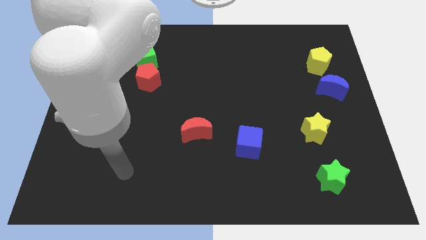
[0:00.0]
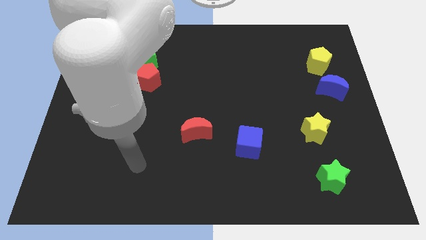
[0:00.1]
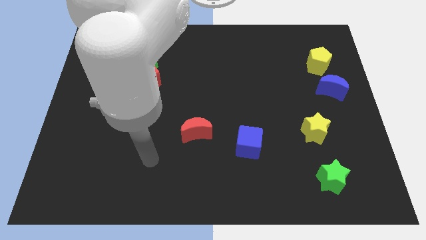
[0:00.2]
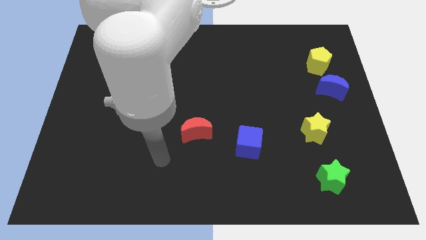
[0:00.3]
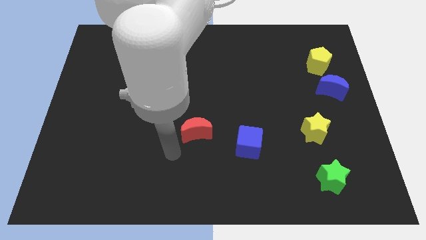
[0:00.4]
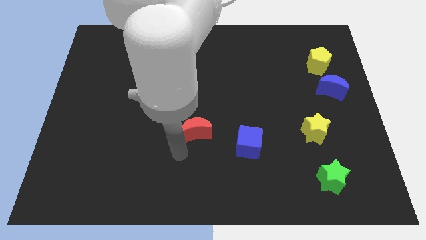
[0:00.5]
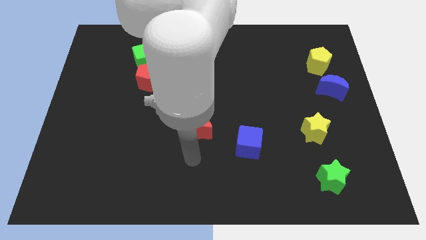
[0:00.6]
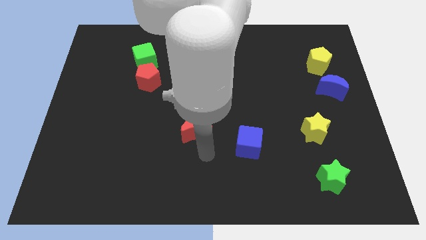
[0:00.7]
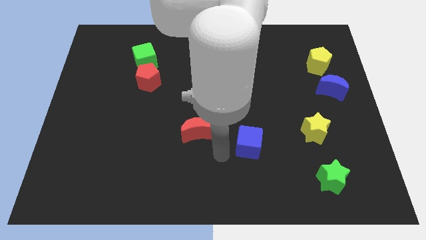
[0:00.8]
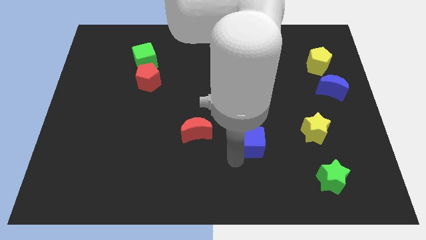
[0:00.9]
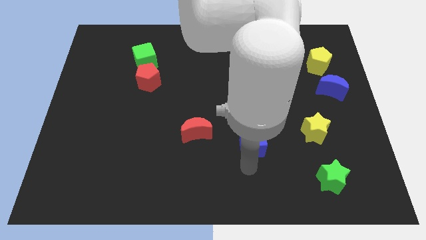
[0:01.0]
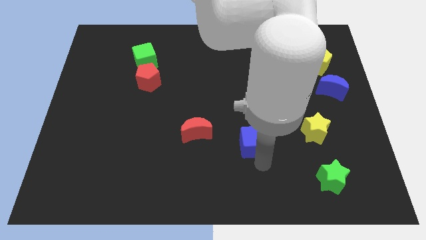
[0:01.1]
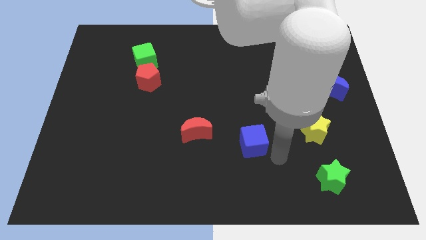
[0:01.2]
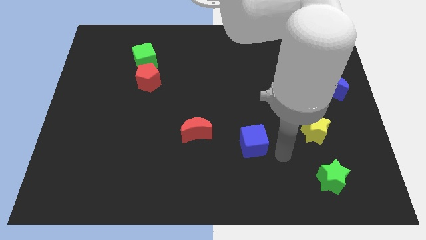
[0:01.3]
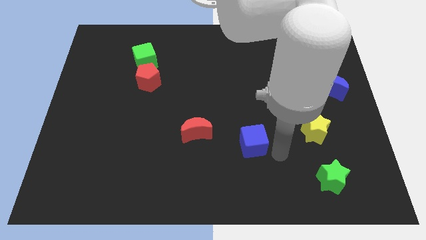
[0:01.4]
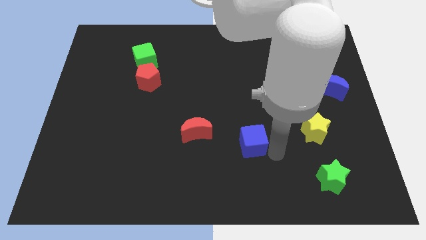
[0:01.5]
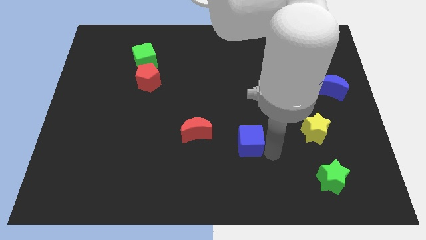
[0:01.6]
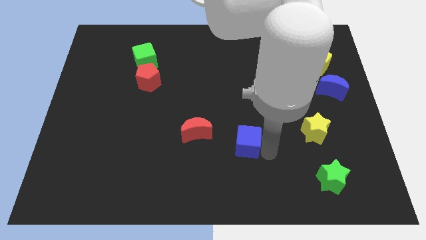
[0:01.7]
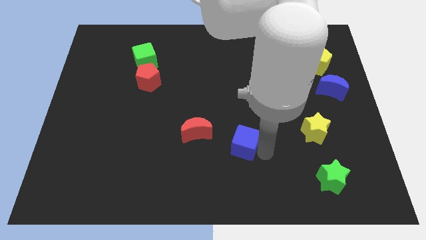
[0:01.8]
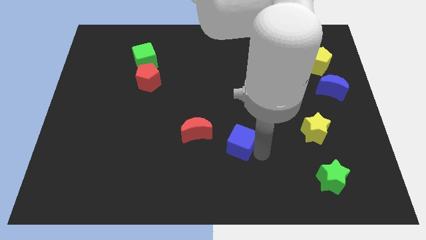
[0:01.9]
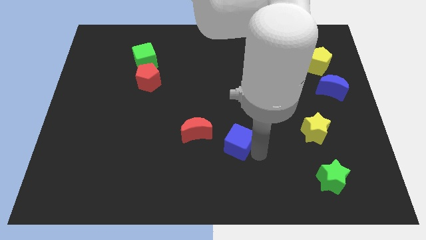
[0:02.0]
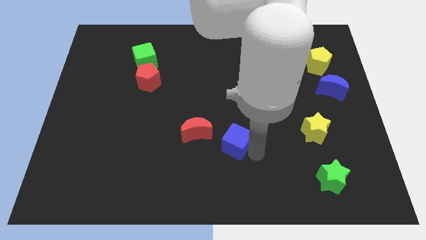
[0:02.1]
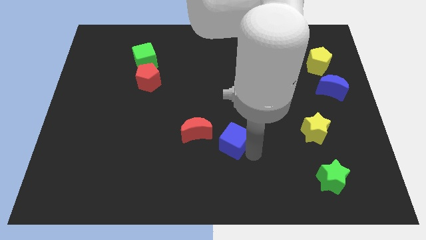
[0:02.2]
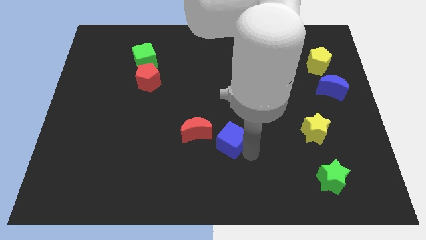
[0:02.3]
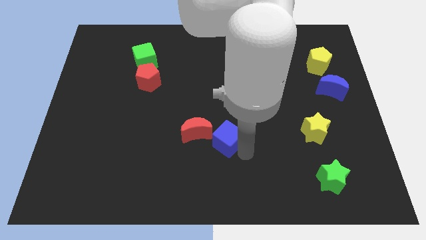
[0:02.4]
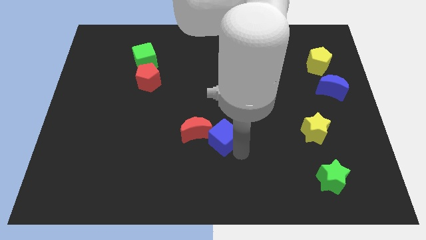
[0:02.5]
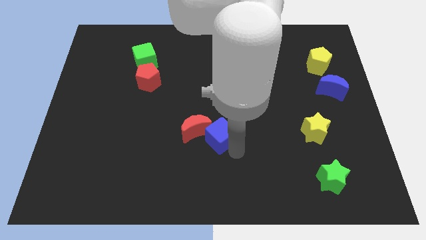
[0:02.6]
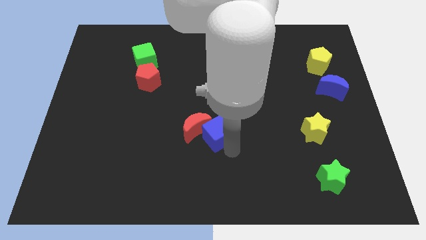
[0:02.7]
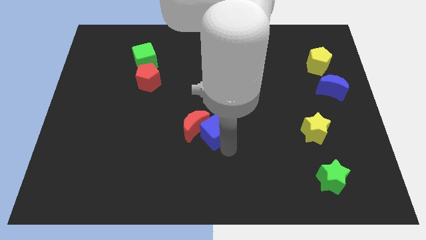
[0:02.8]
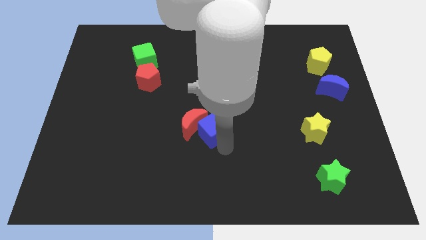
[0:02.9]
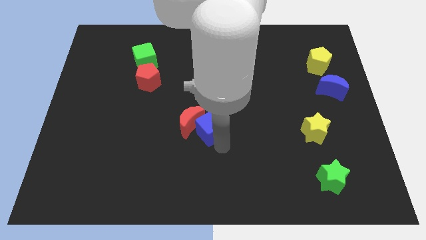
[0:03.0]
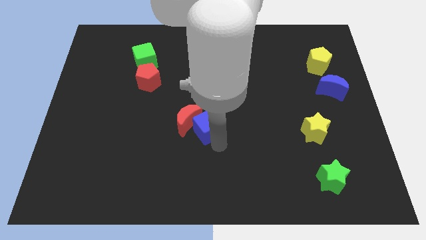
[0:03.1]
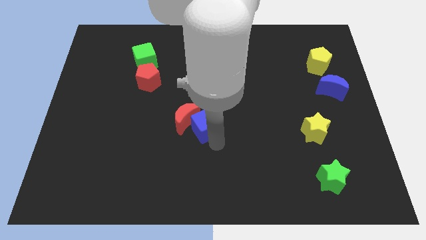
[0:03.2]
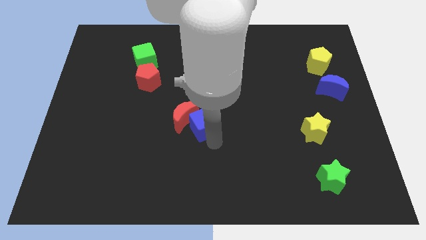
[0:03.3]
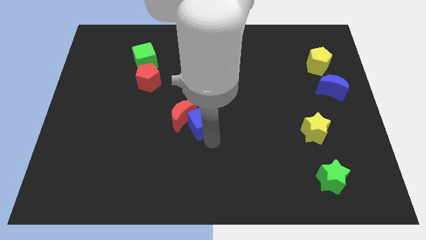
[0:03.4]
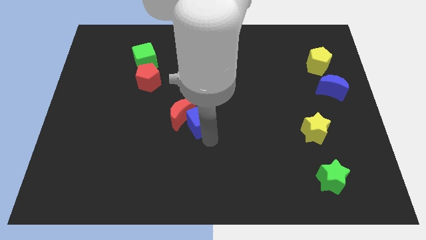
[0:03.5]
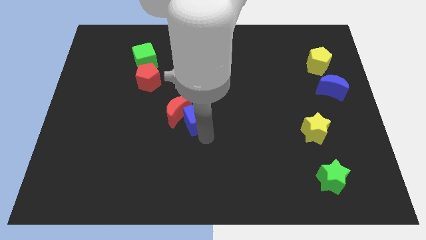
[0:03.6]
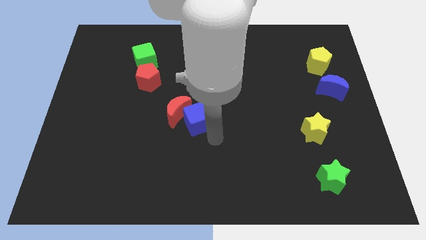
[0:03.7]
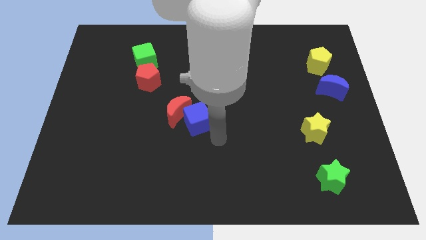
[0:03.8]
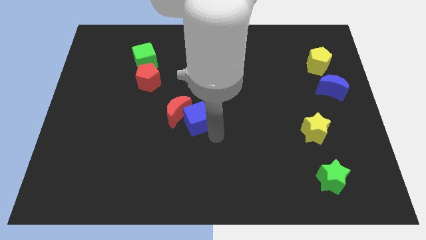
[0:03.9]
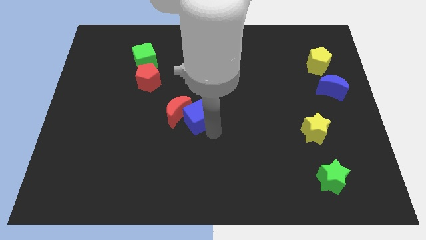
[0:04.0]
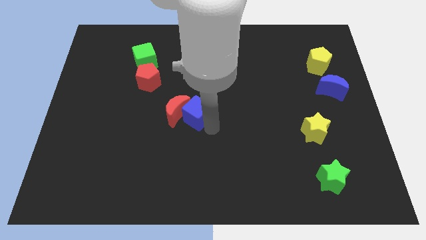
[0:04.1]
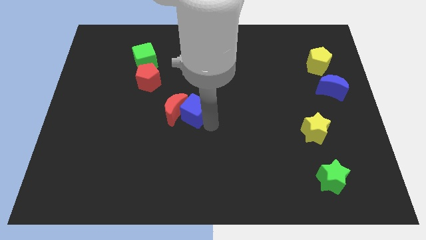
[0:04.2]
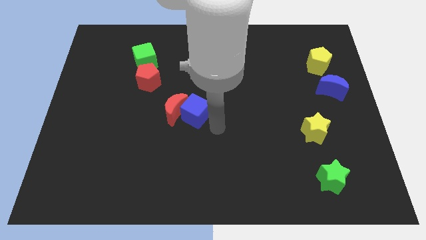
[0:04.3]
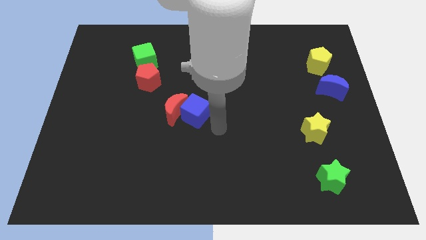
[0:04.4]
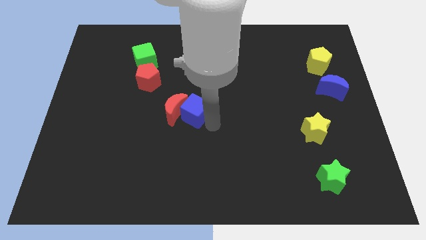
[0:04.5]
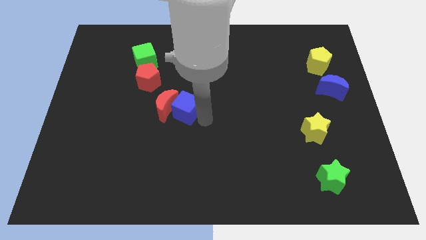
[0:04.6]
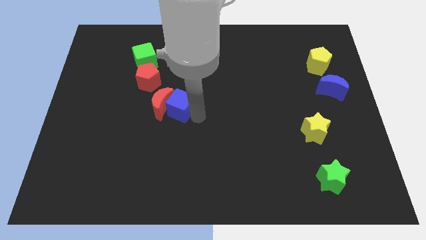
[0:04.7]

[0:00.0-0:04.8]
slide the blue cube diagonally down and to the right of the red pentagon

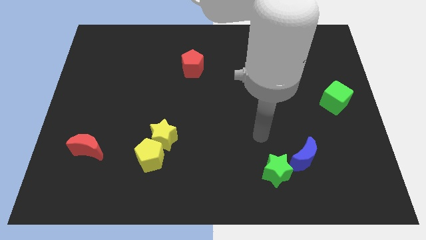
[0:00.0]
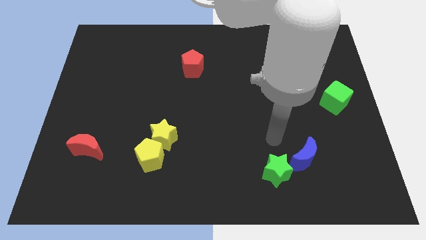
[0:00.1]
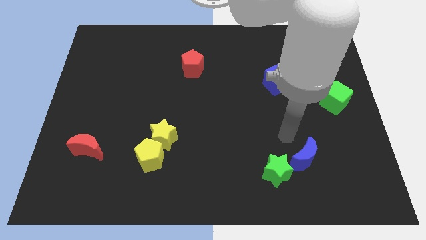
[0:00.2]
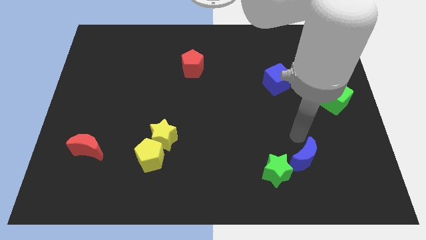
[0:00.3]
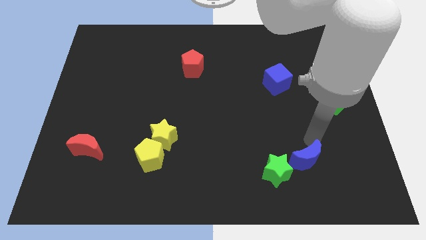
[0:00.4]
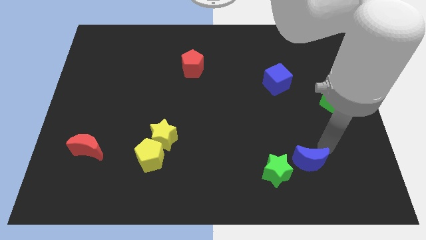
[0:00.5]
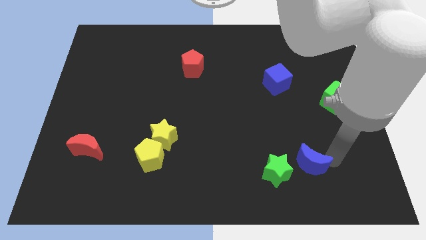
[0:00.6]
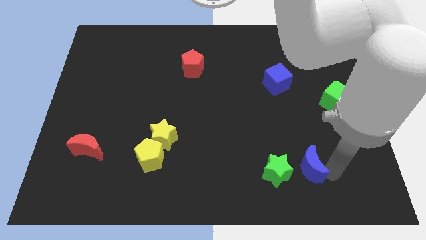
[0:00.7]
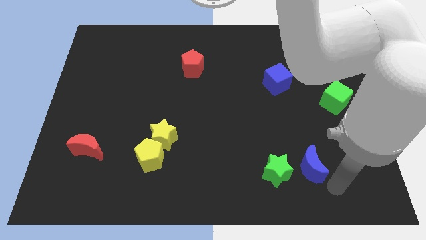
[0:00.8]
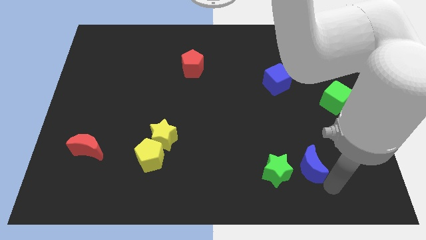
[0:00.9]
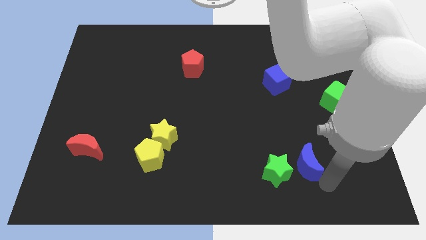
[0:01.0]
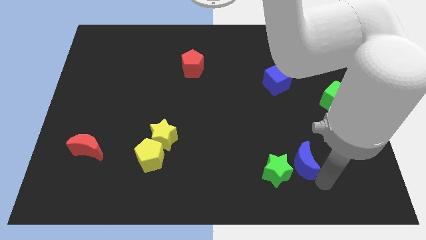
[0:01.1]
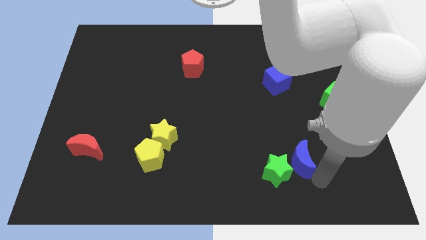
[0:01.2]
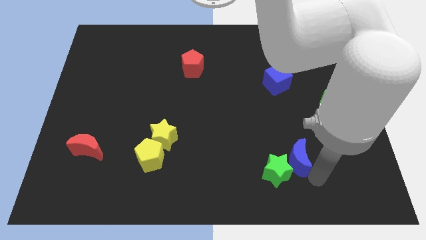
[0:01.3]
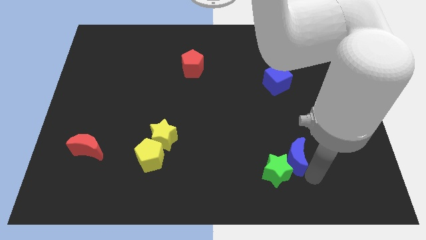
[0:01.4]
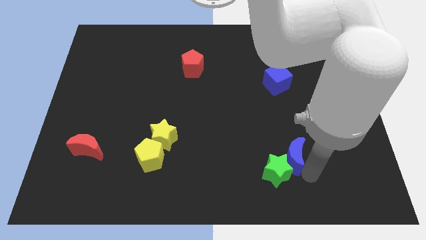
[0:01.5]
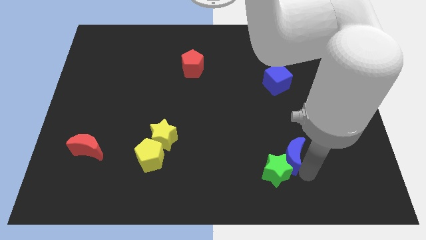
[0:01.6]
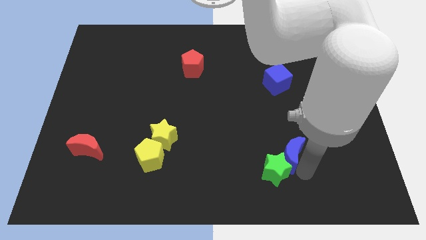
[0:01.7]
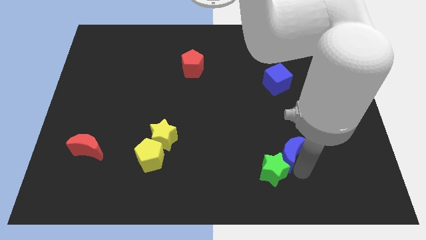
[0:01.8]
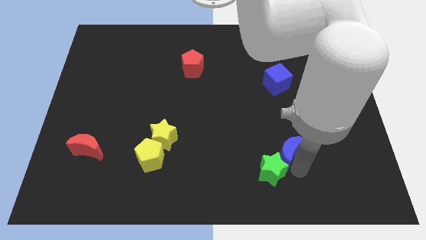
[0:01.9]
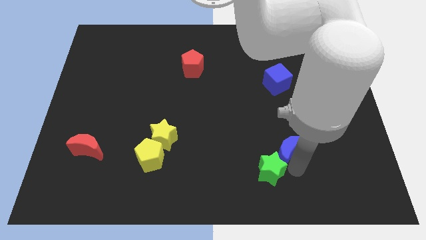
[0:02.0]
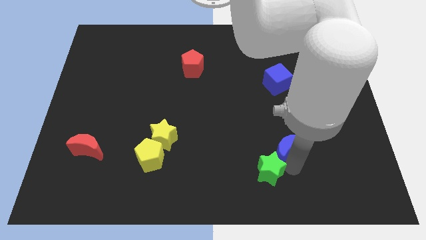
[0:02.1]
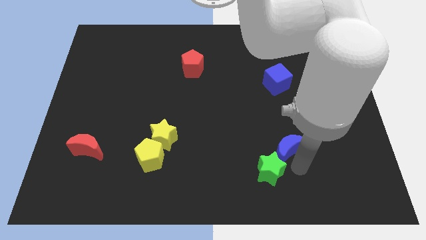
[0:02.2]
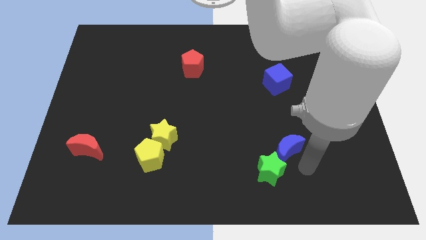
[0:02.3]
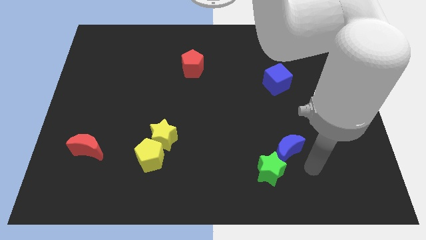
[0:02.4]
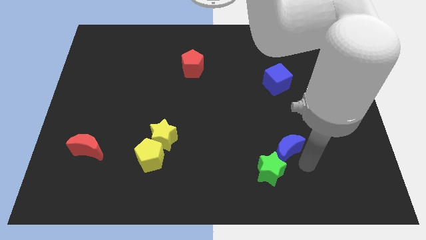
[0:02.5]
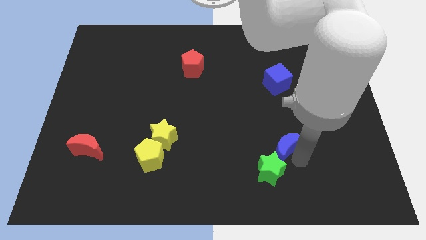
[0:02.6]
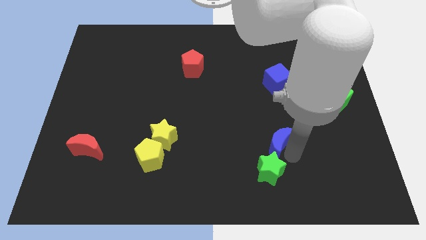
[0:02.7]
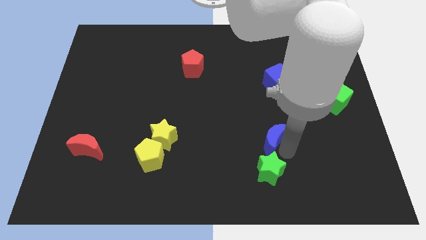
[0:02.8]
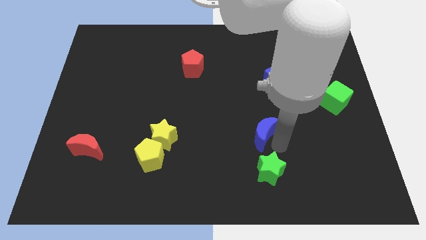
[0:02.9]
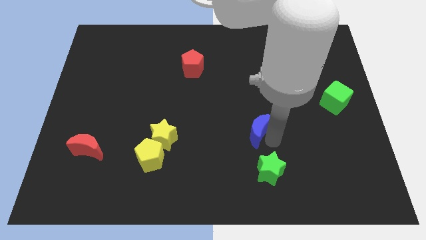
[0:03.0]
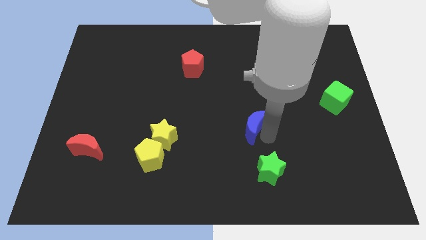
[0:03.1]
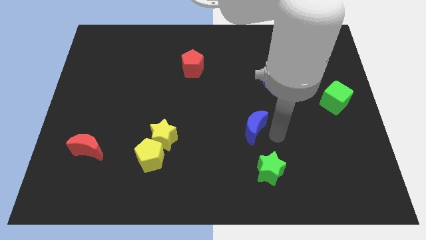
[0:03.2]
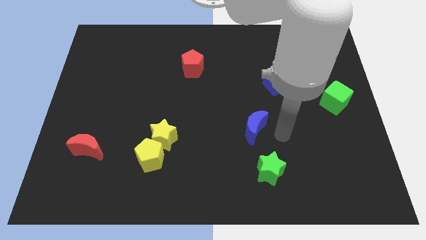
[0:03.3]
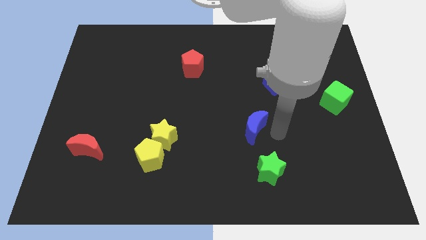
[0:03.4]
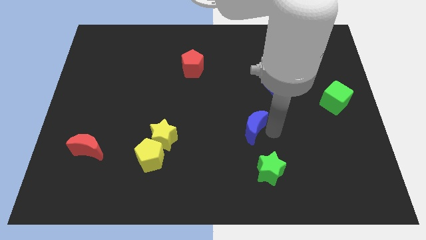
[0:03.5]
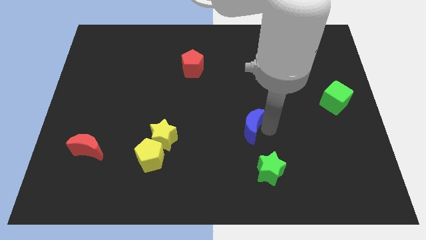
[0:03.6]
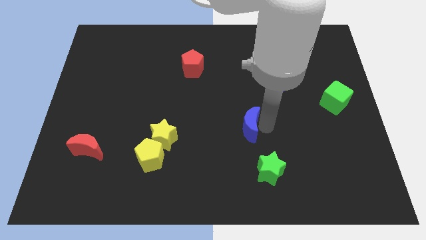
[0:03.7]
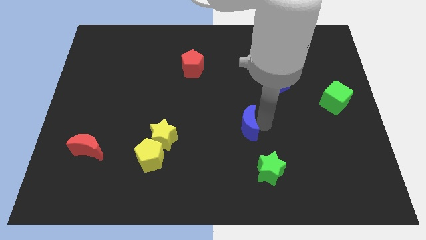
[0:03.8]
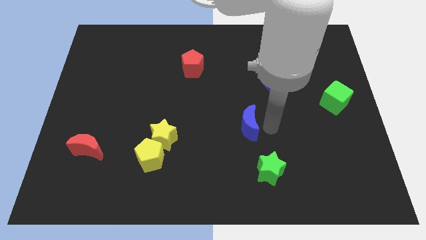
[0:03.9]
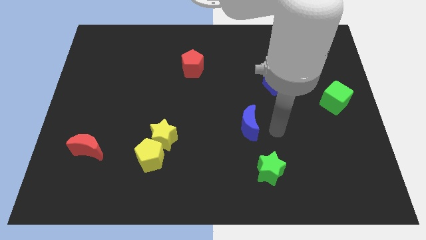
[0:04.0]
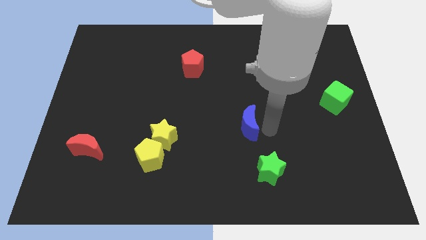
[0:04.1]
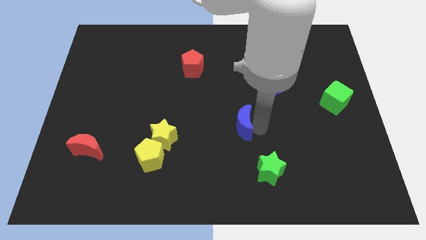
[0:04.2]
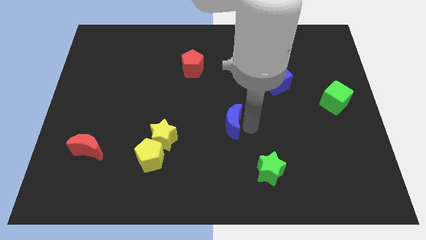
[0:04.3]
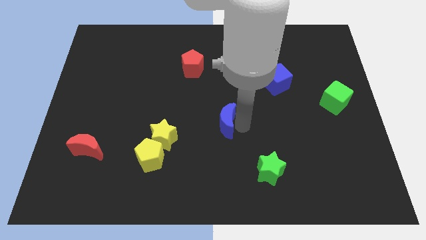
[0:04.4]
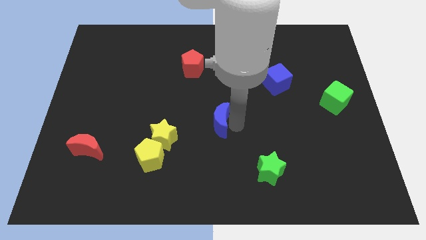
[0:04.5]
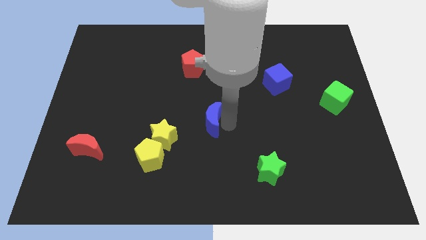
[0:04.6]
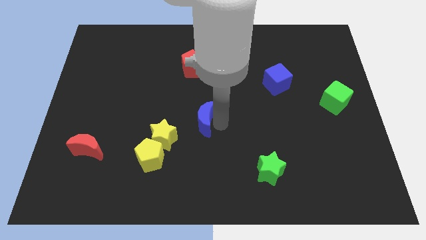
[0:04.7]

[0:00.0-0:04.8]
put the blue moon to the top right side of the yellow star
